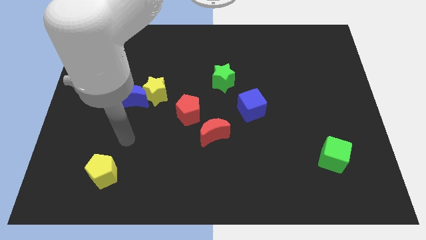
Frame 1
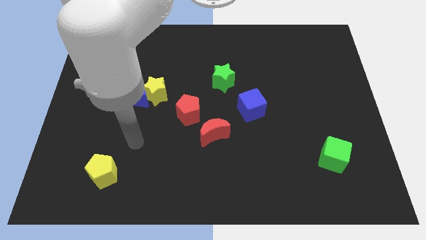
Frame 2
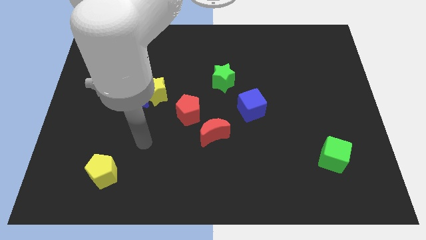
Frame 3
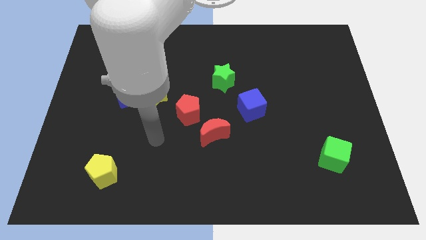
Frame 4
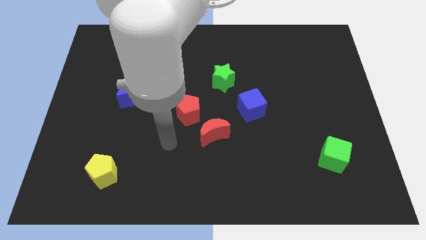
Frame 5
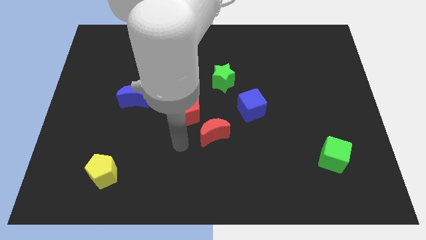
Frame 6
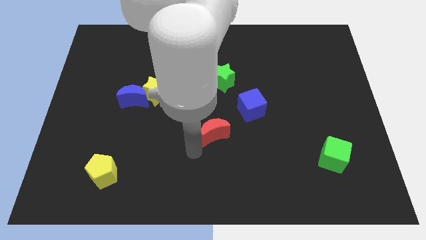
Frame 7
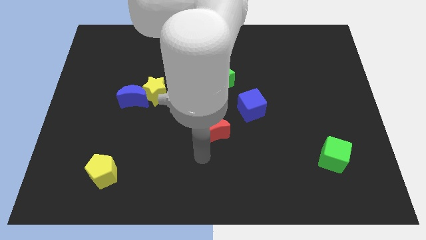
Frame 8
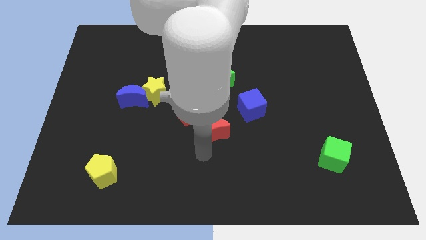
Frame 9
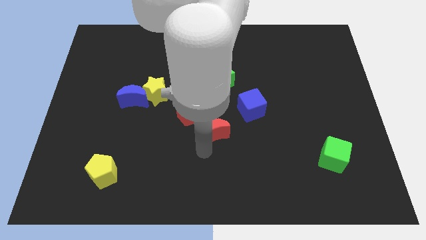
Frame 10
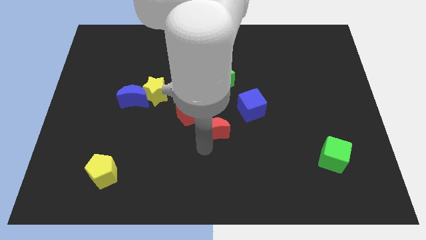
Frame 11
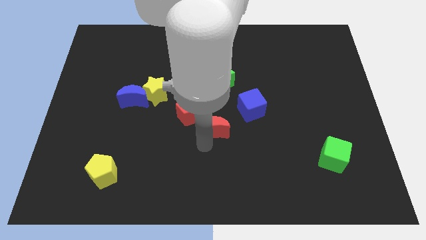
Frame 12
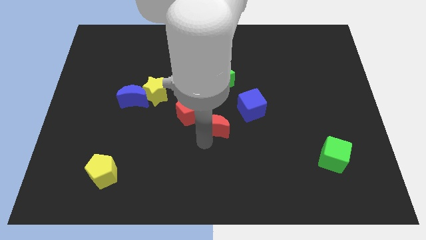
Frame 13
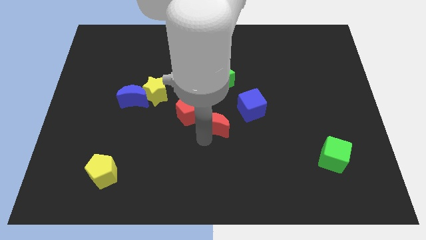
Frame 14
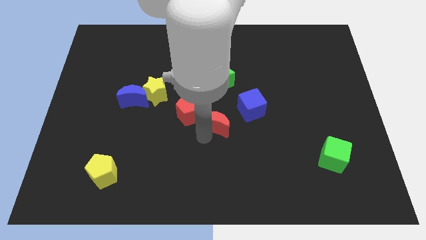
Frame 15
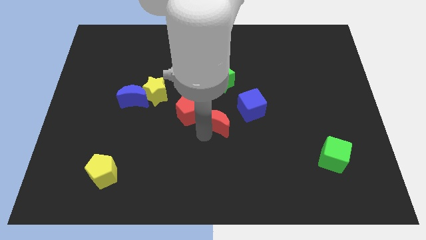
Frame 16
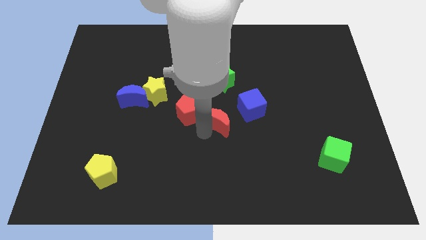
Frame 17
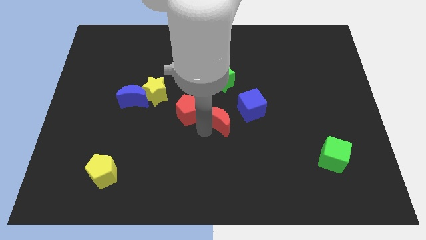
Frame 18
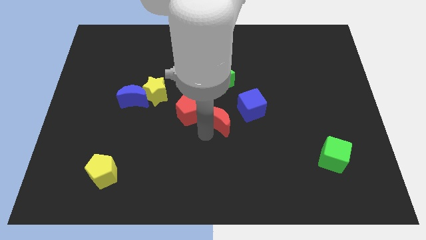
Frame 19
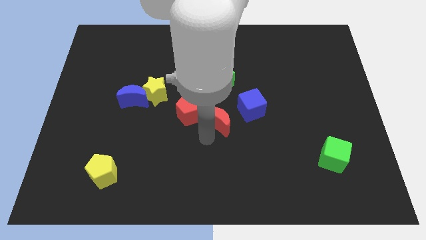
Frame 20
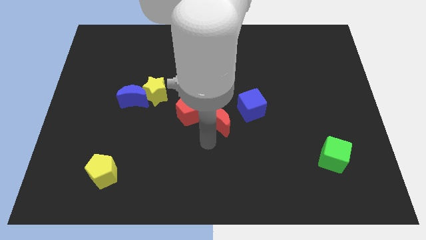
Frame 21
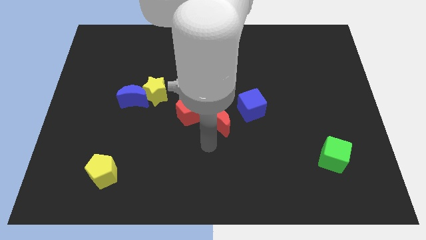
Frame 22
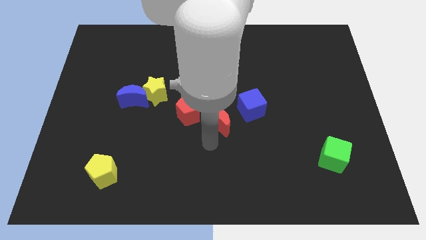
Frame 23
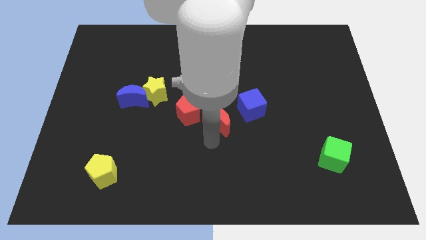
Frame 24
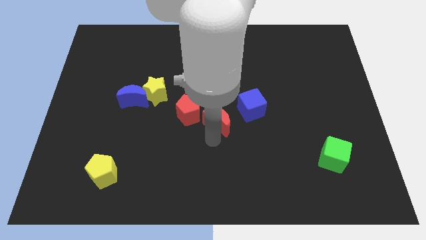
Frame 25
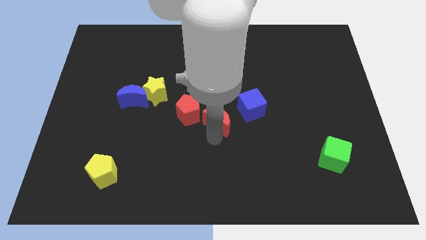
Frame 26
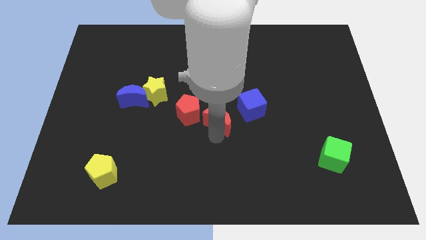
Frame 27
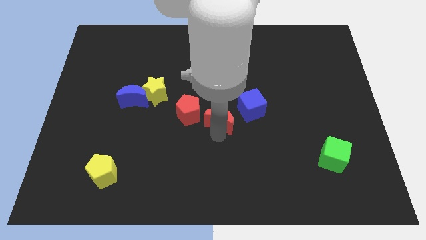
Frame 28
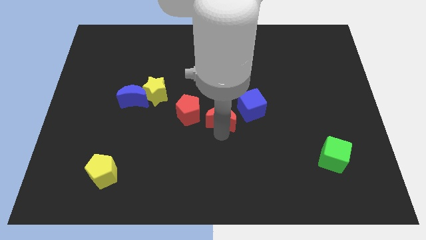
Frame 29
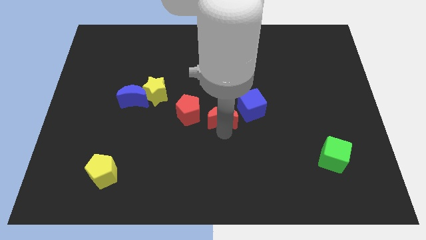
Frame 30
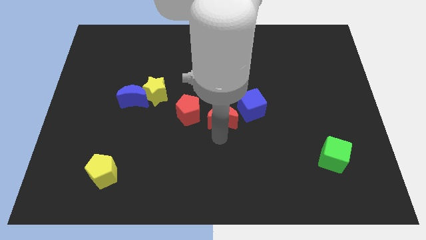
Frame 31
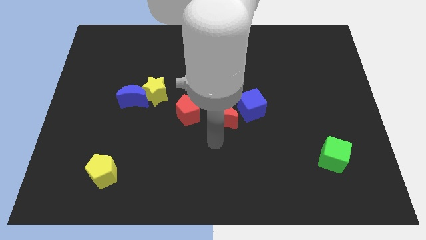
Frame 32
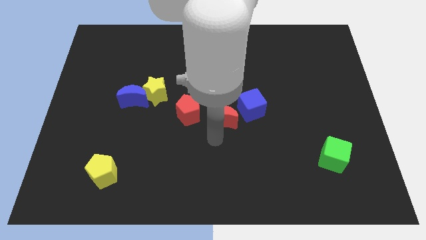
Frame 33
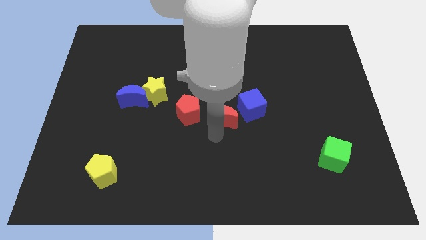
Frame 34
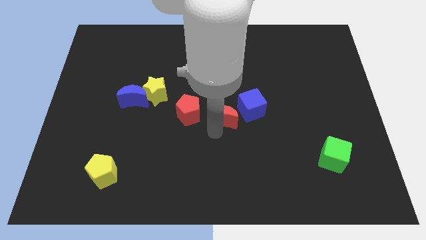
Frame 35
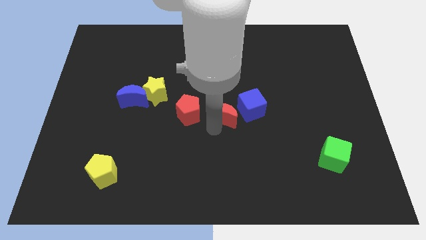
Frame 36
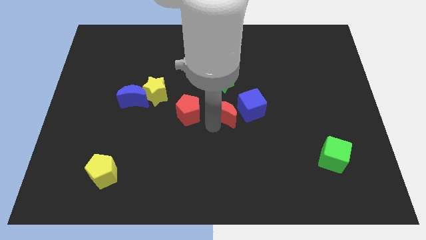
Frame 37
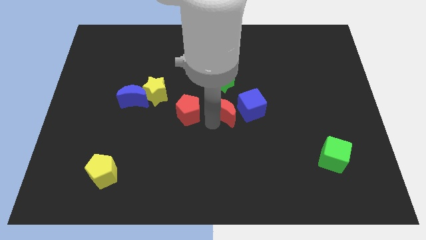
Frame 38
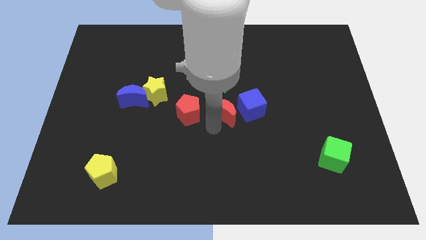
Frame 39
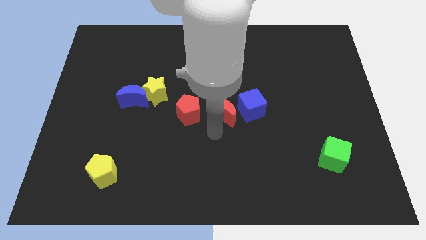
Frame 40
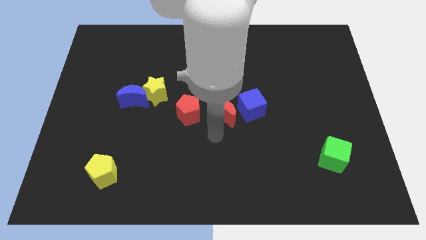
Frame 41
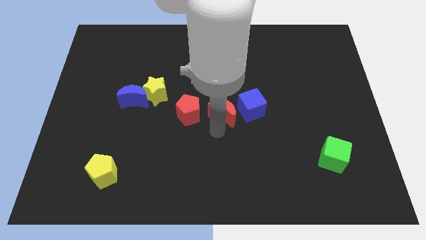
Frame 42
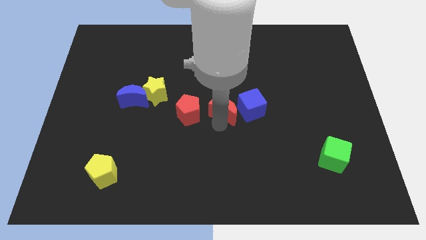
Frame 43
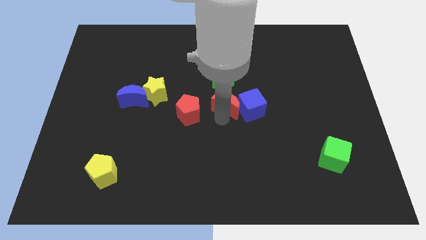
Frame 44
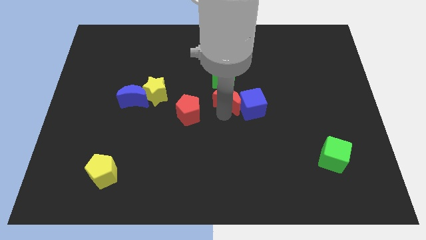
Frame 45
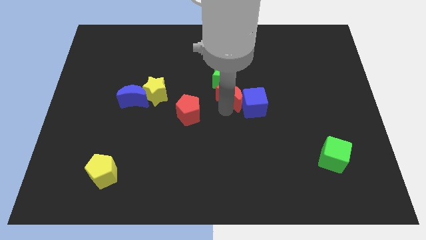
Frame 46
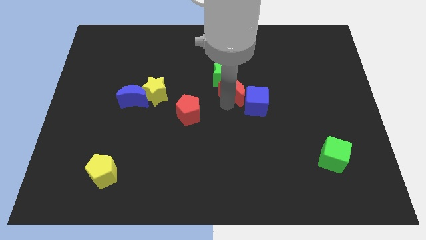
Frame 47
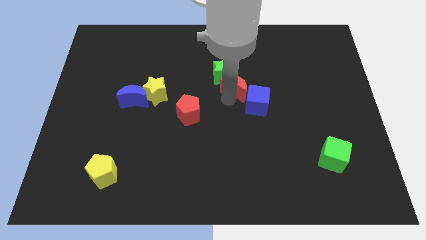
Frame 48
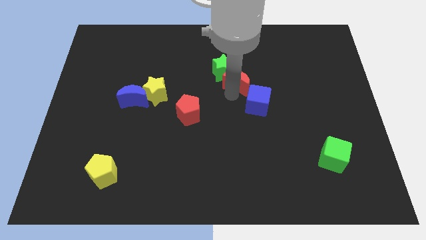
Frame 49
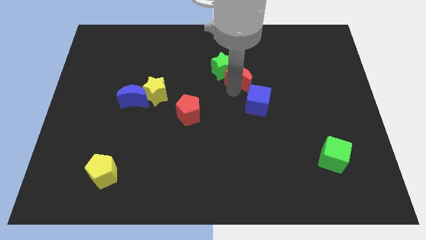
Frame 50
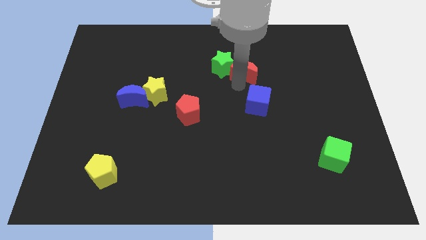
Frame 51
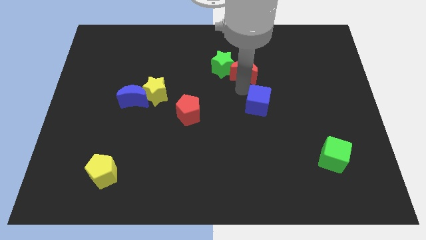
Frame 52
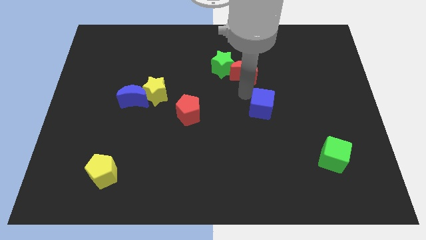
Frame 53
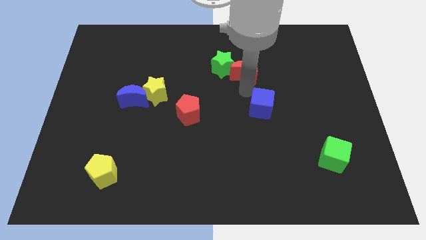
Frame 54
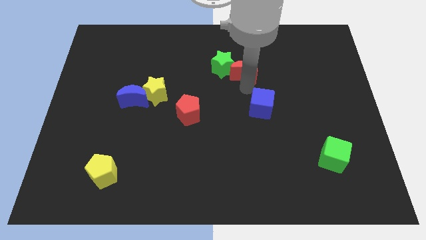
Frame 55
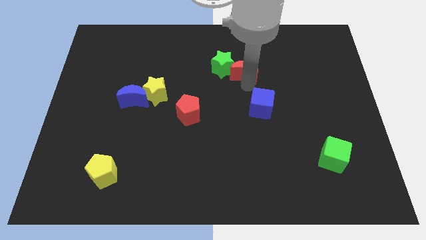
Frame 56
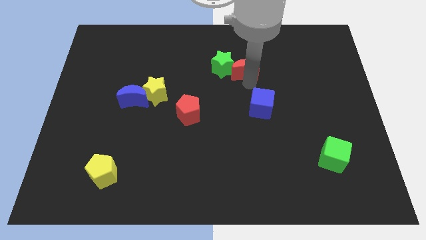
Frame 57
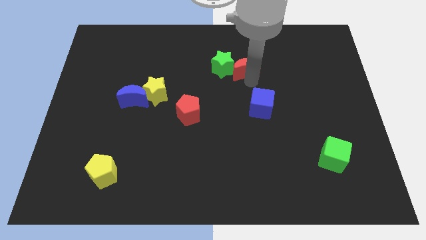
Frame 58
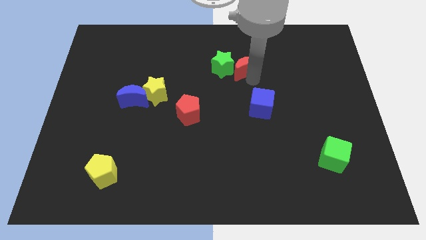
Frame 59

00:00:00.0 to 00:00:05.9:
put the red moon to the top right of the green star

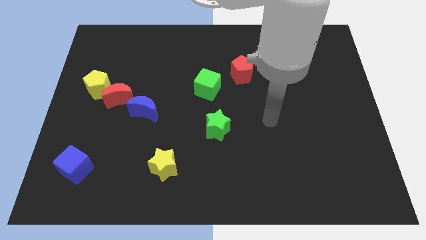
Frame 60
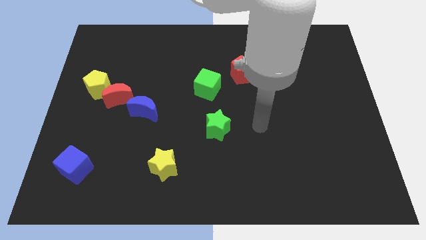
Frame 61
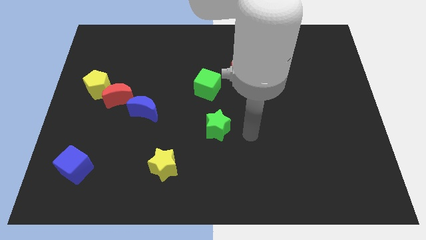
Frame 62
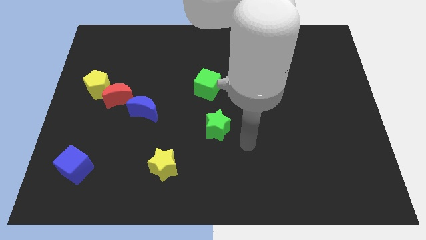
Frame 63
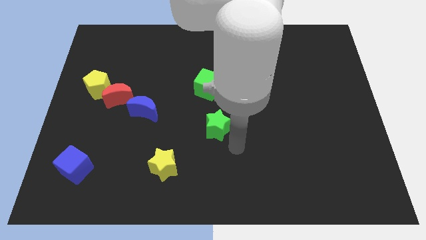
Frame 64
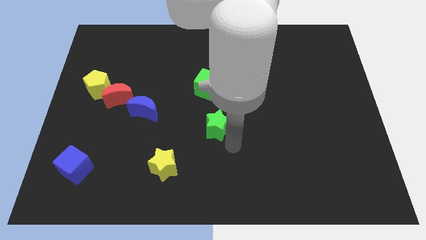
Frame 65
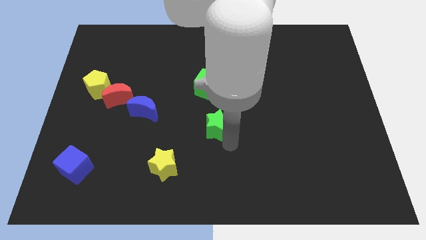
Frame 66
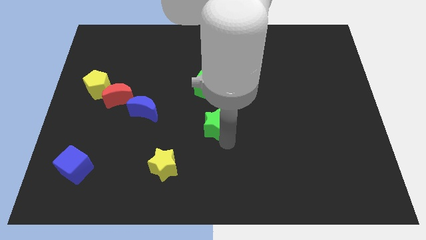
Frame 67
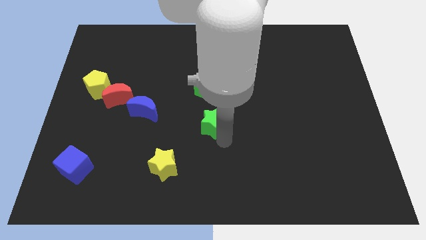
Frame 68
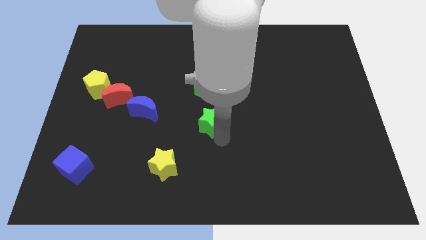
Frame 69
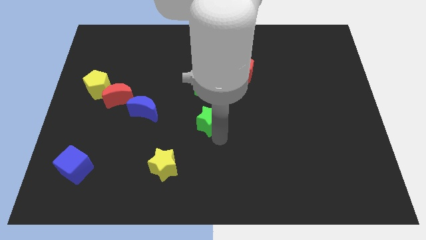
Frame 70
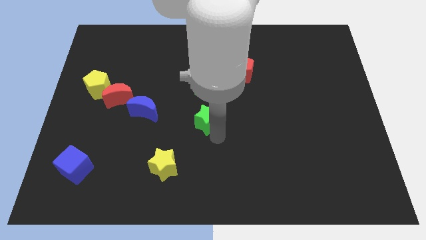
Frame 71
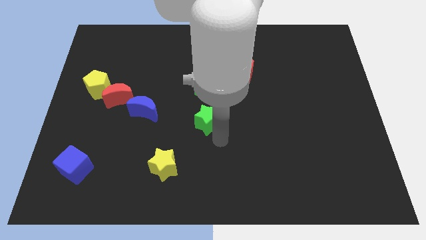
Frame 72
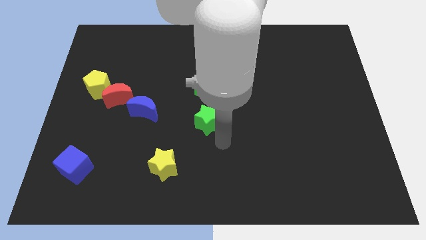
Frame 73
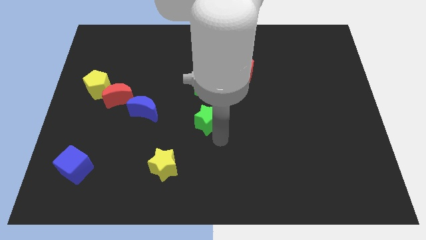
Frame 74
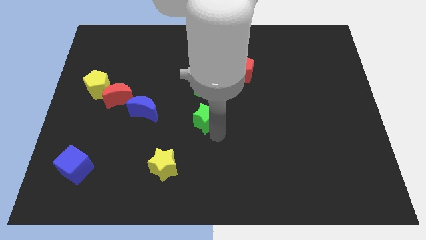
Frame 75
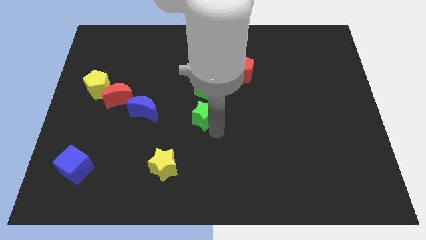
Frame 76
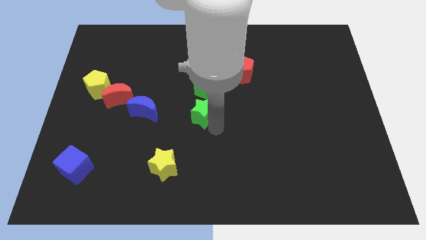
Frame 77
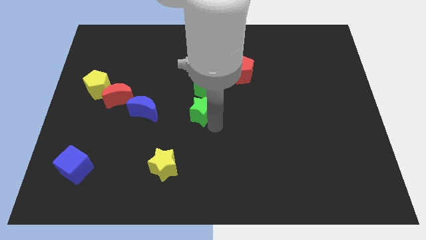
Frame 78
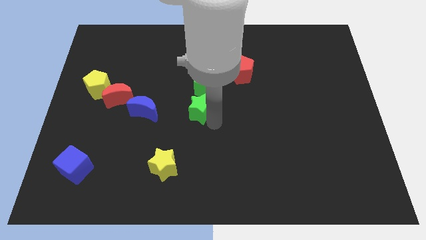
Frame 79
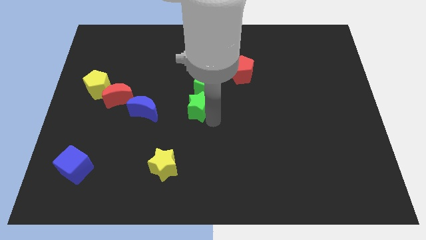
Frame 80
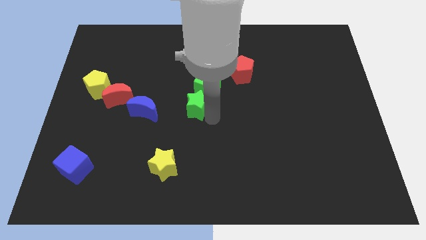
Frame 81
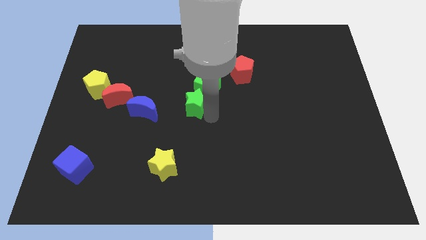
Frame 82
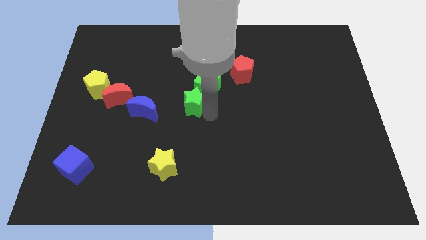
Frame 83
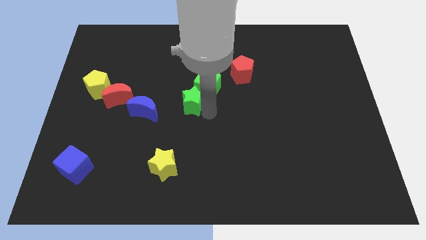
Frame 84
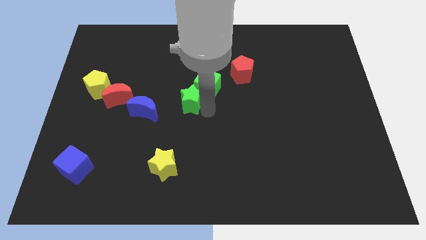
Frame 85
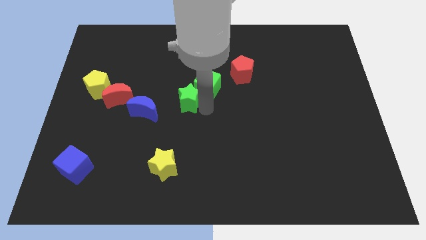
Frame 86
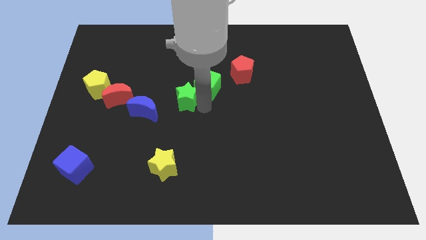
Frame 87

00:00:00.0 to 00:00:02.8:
slide the green star to the right of the red moon
